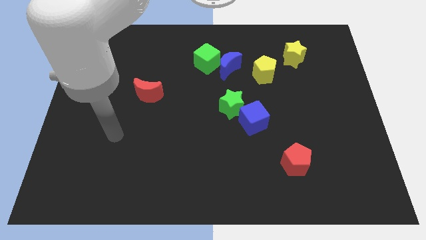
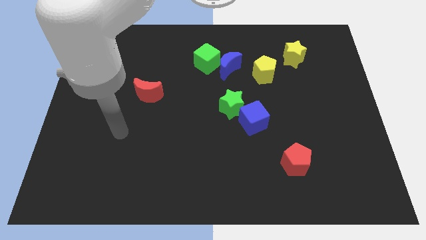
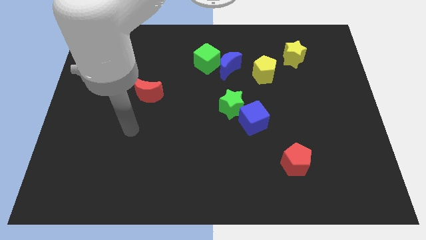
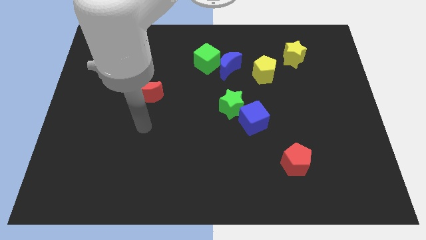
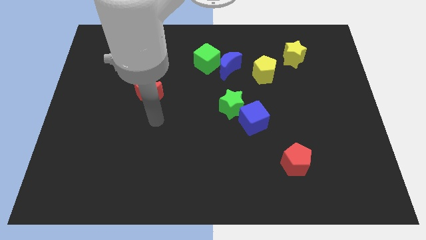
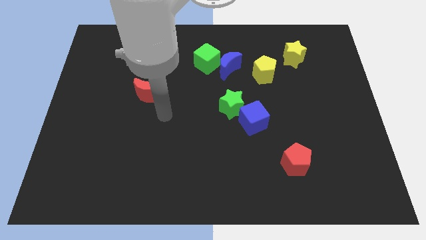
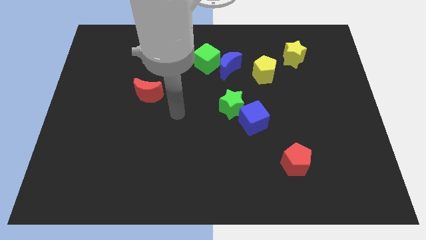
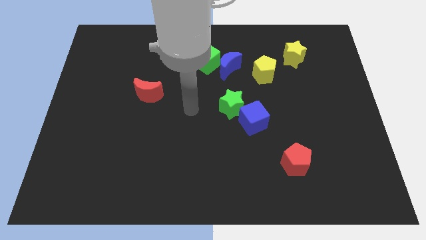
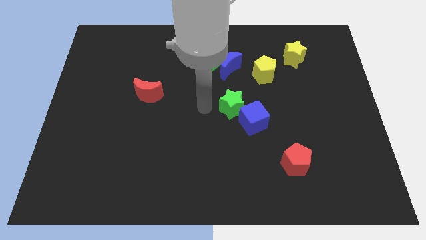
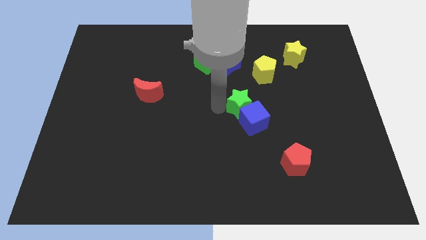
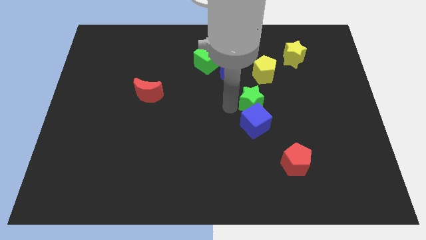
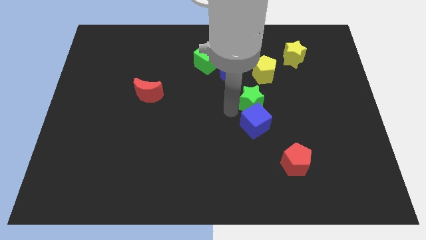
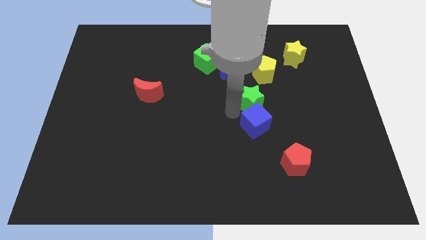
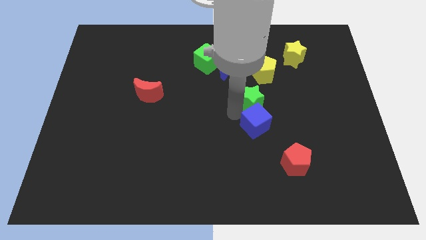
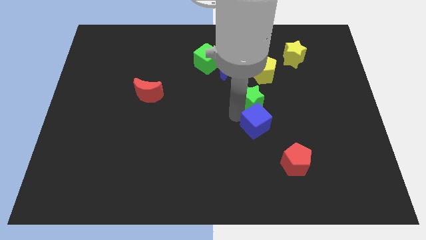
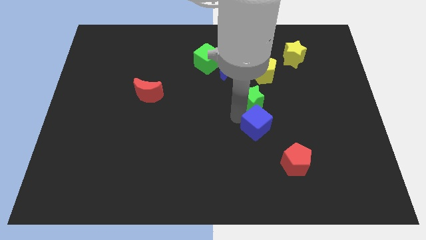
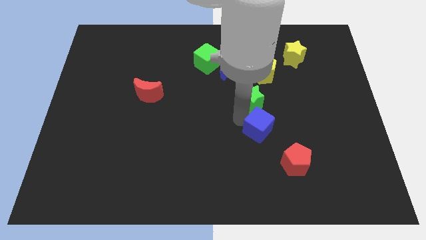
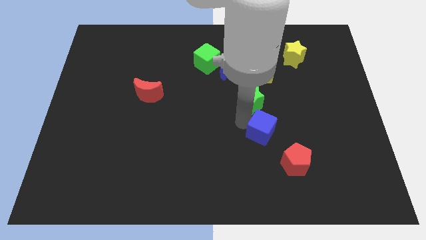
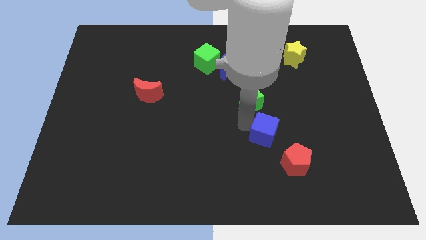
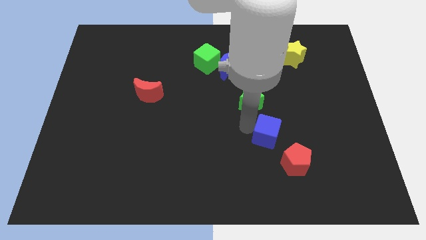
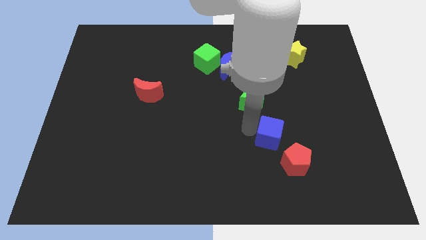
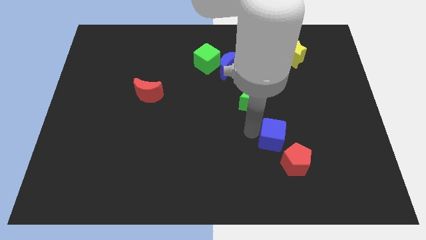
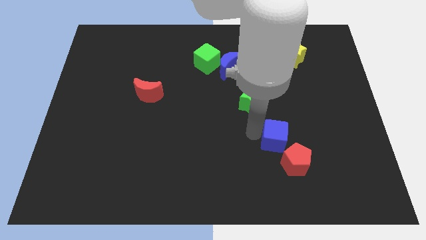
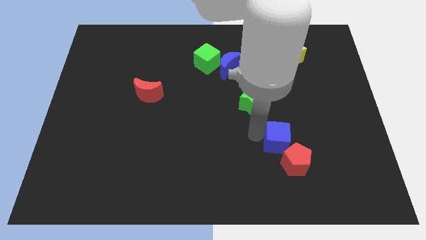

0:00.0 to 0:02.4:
slightly push the blue cube down and right diagonally

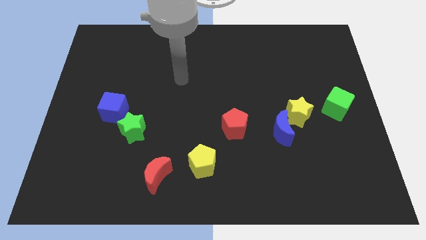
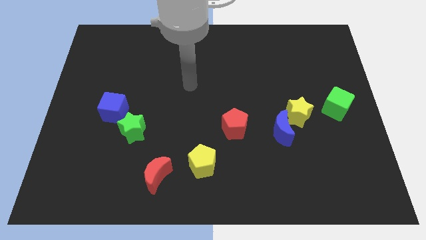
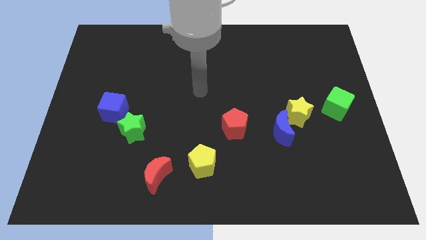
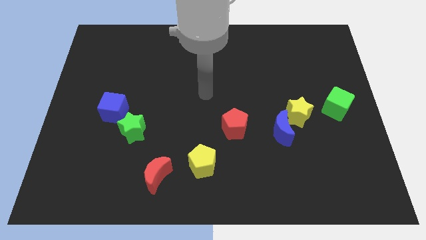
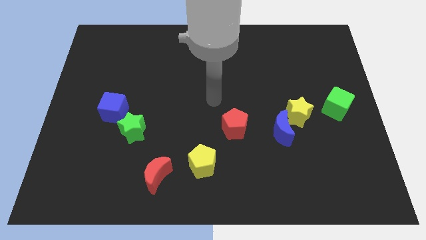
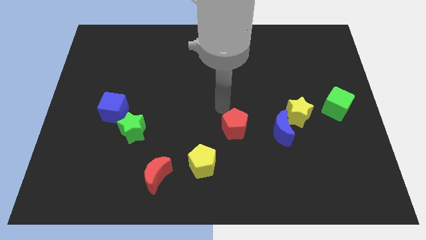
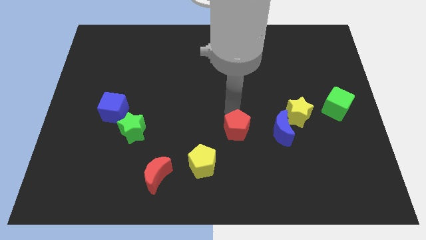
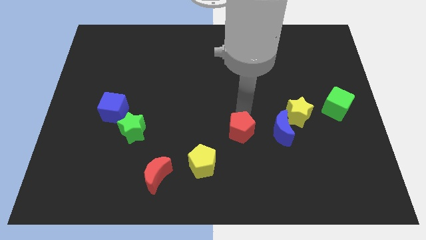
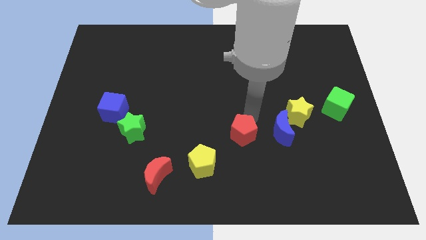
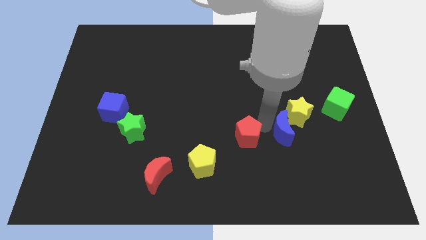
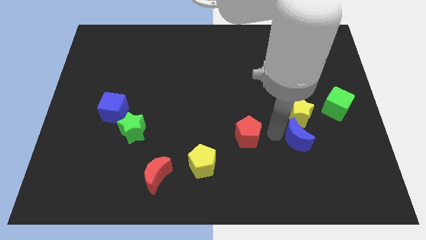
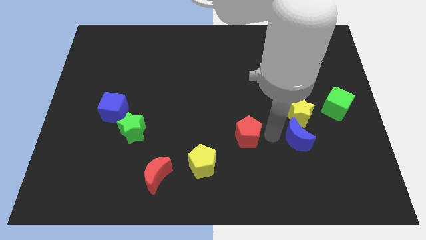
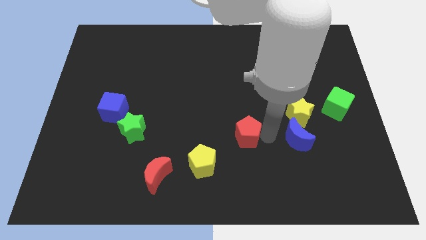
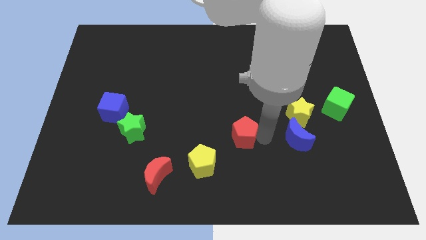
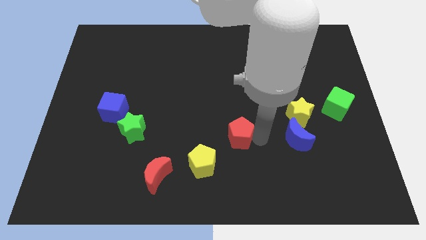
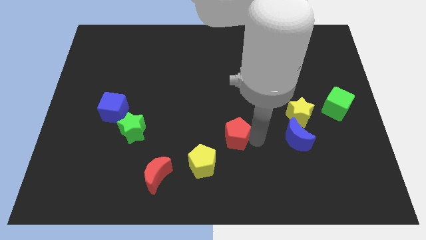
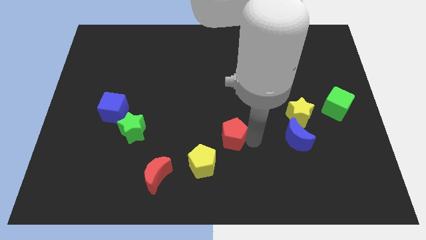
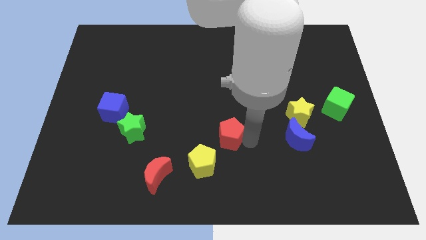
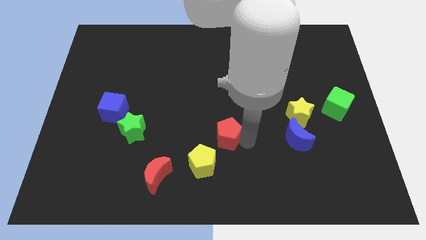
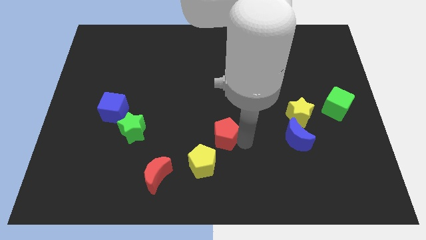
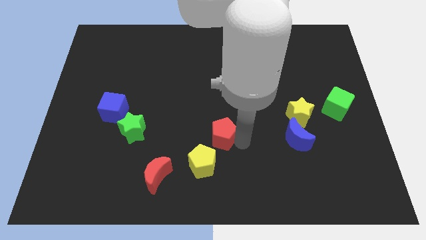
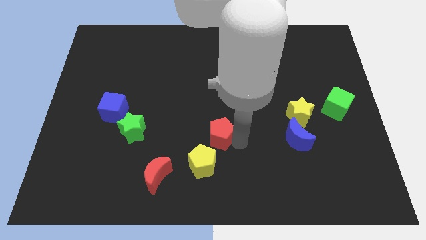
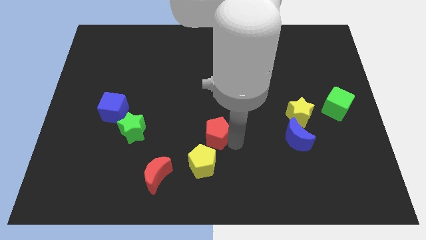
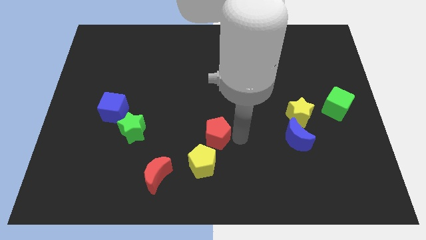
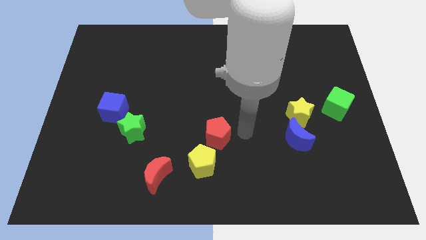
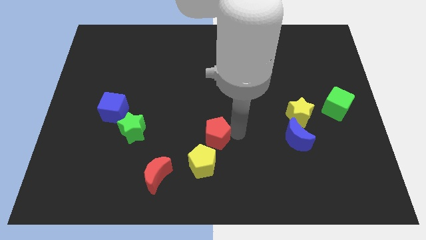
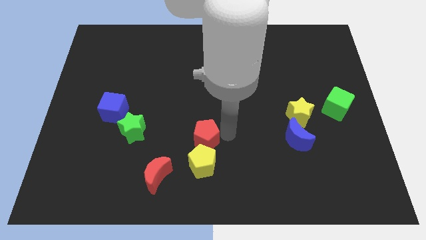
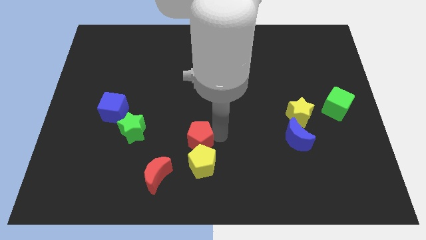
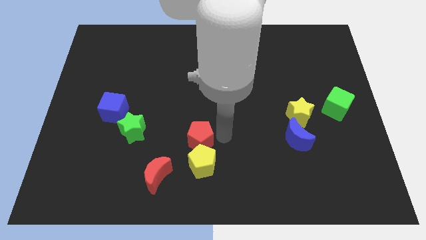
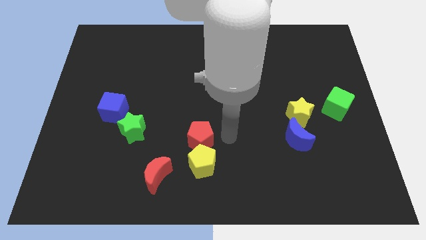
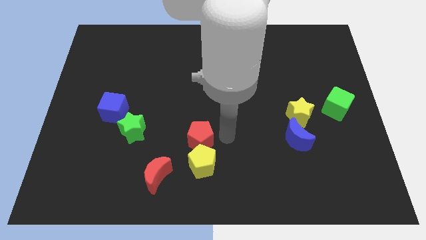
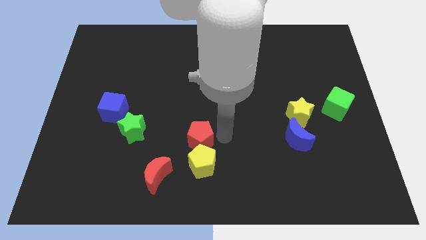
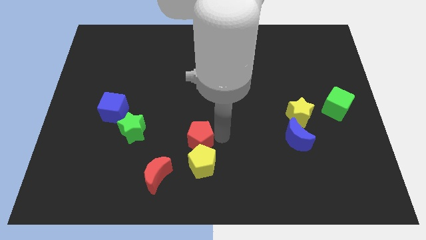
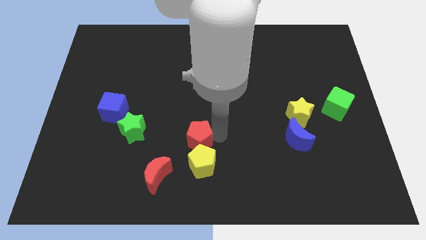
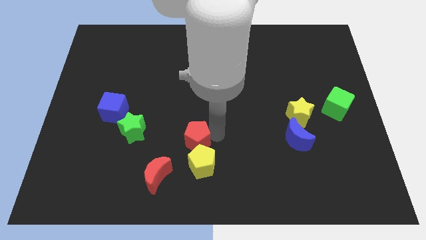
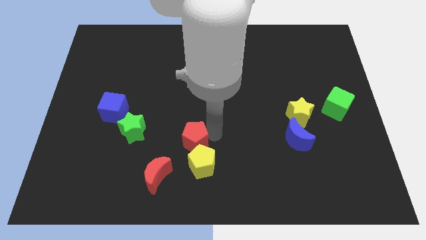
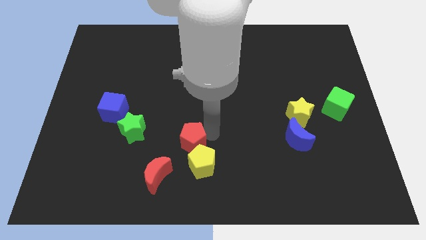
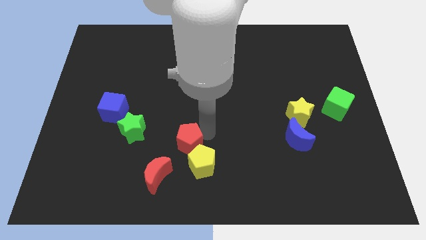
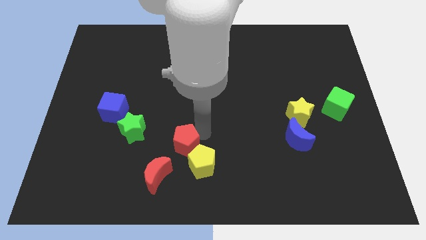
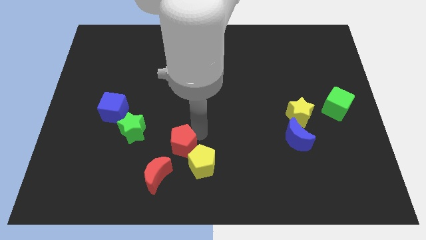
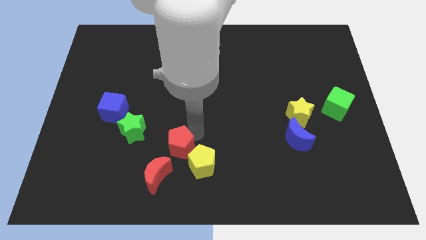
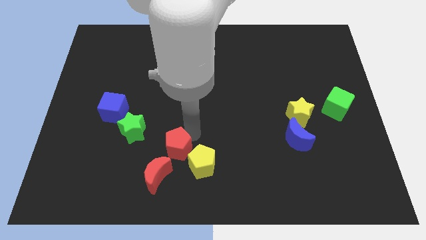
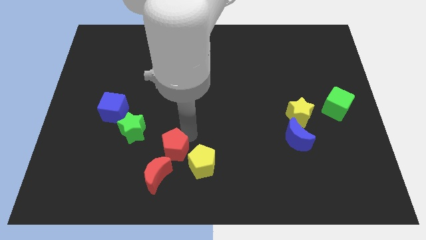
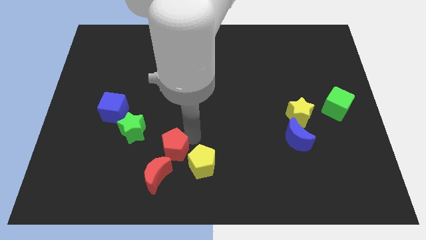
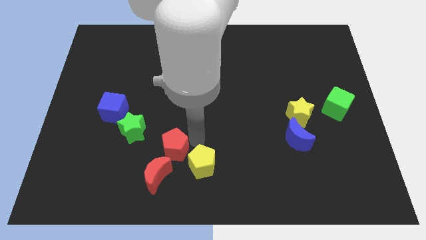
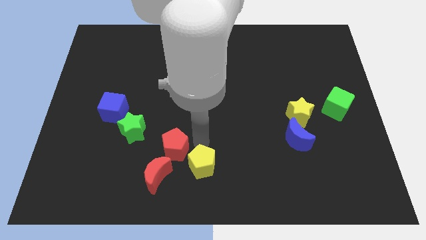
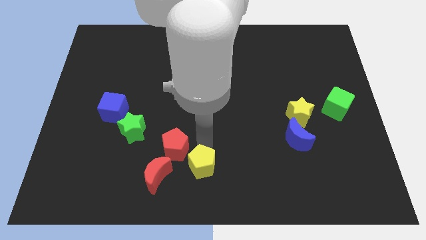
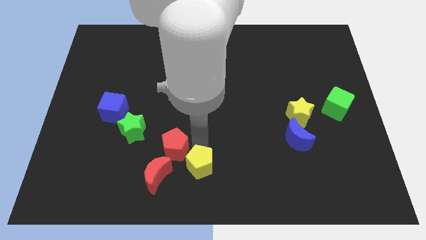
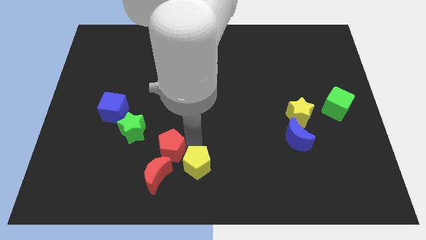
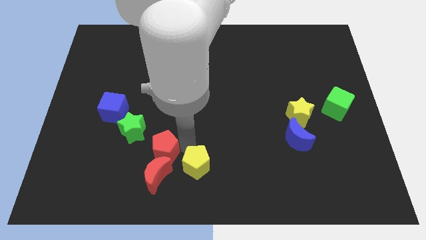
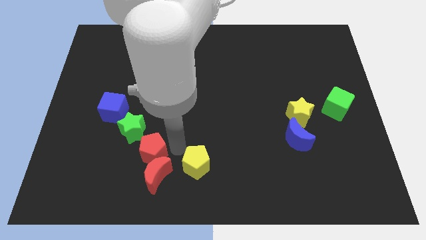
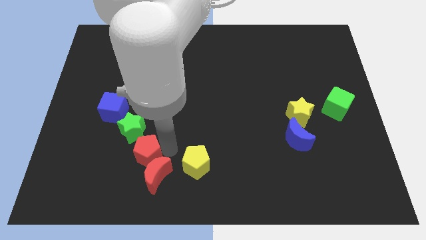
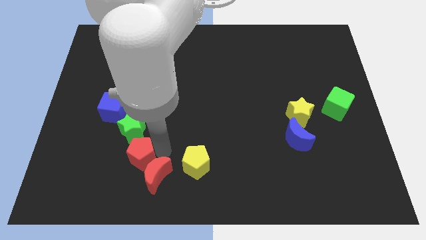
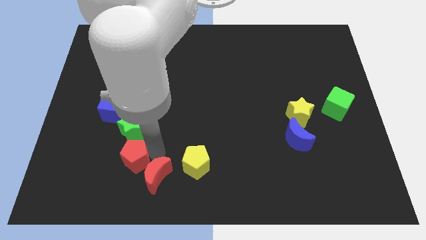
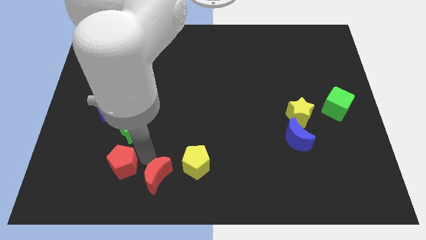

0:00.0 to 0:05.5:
slide the red pentagon to the left

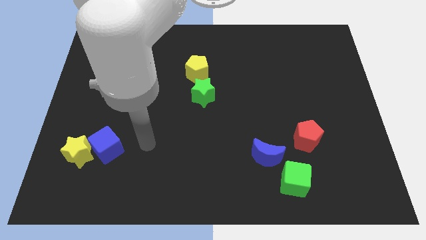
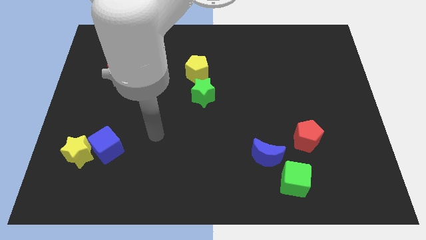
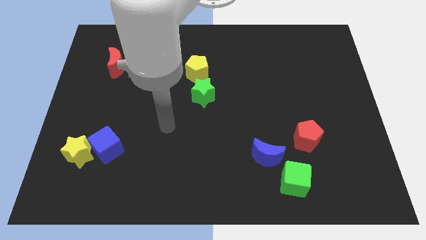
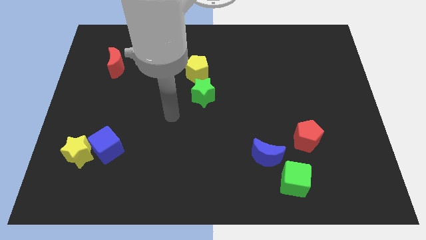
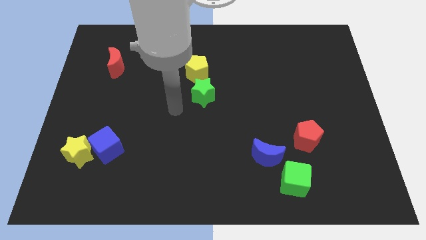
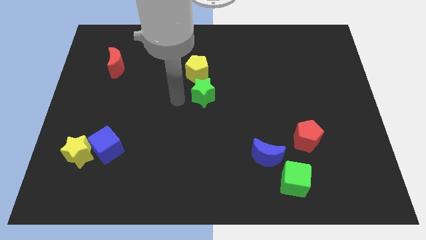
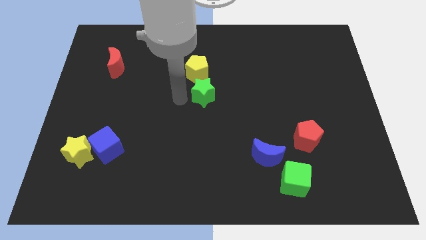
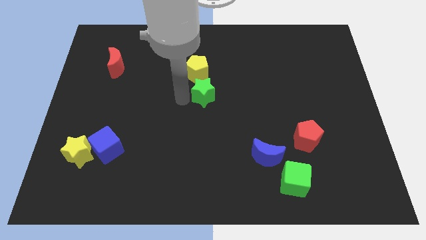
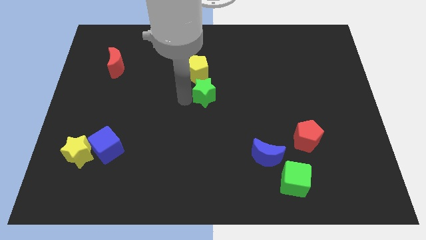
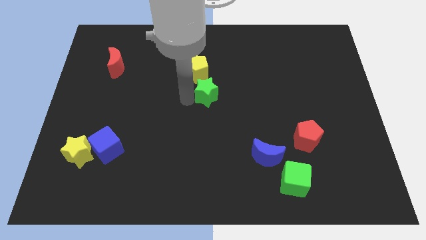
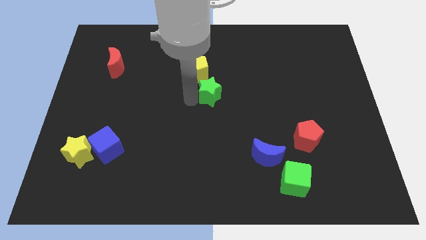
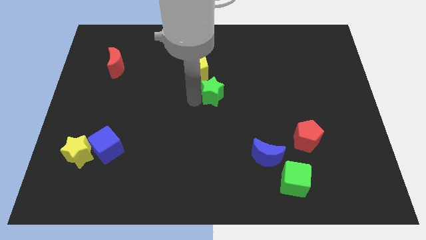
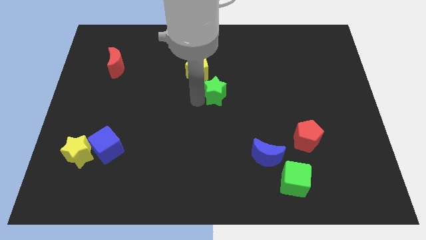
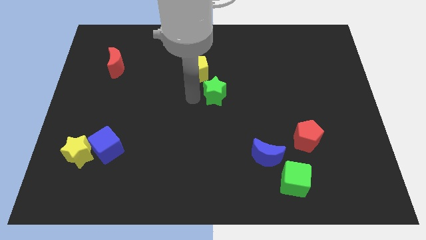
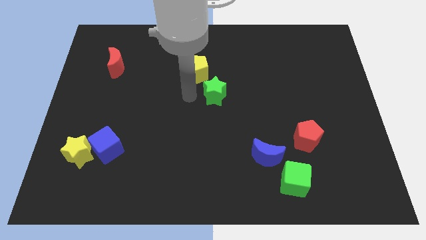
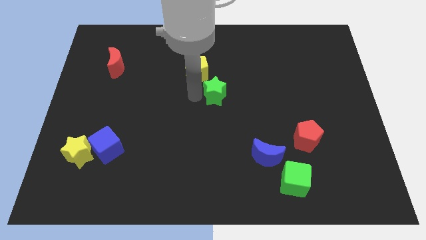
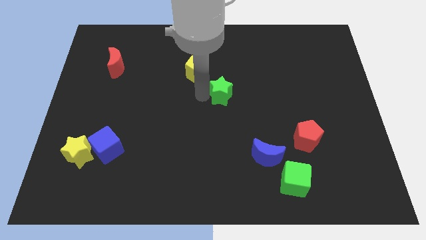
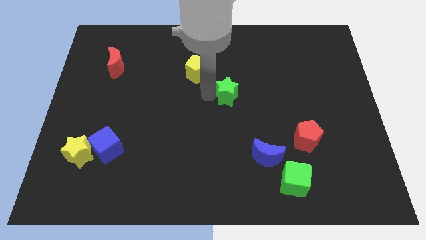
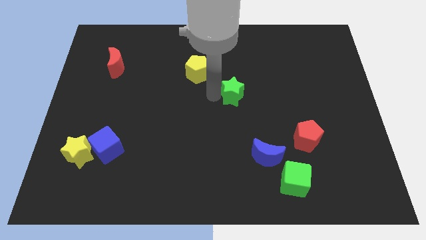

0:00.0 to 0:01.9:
move the green star a little bit to the right
